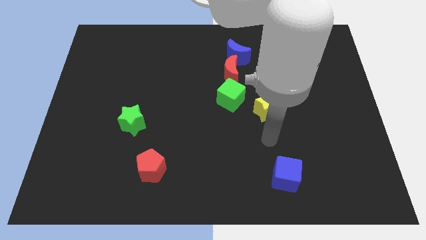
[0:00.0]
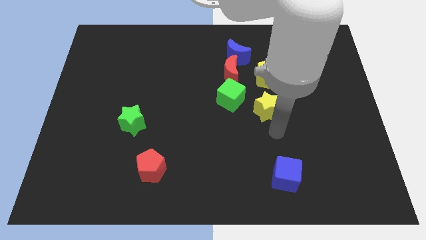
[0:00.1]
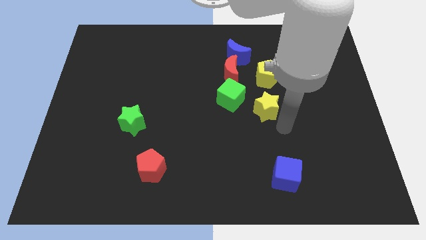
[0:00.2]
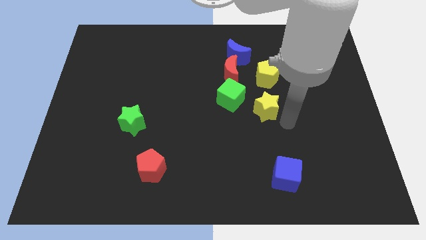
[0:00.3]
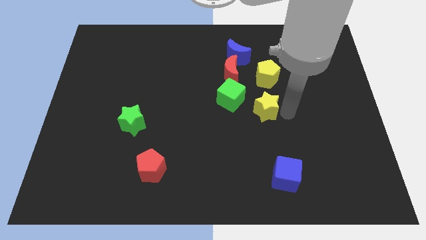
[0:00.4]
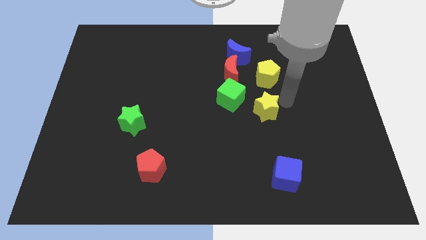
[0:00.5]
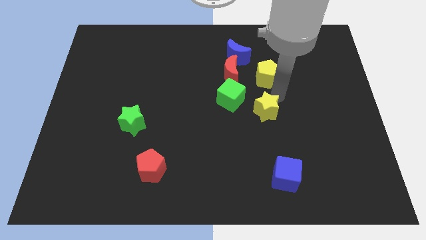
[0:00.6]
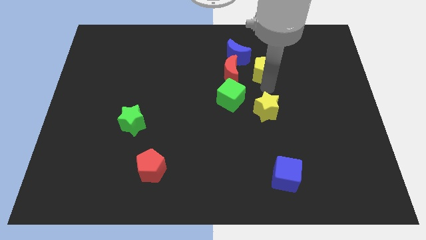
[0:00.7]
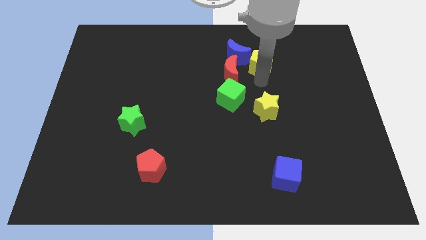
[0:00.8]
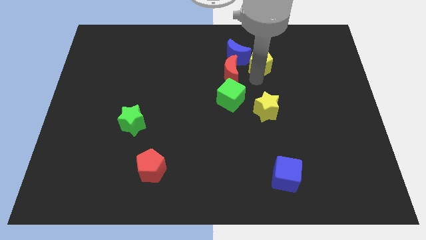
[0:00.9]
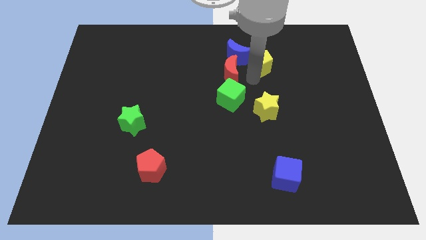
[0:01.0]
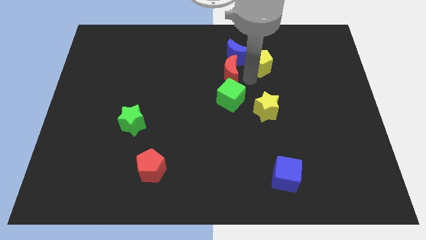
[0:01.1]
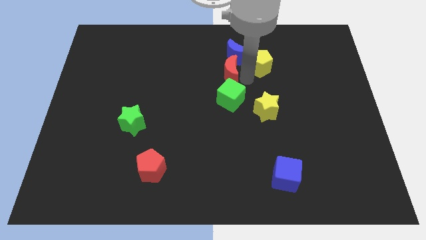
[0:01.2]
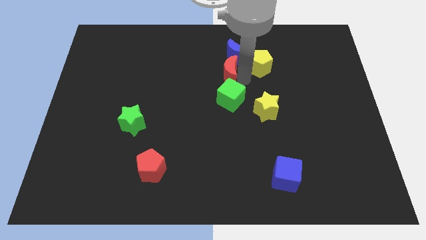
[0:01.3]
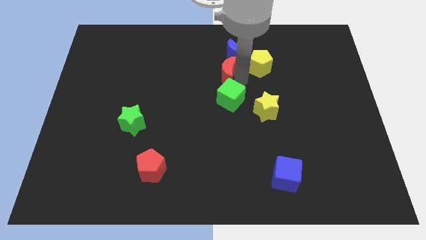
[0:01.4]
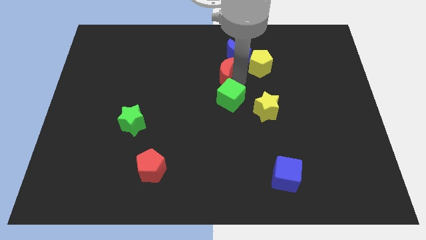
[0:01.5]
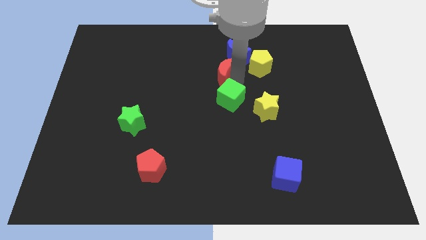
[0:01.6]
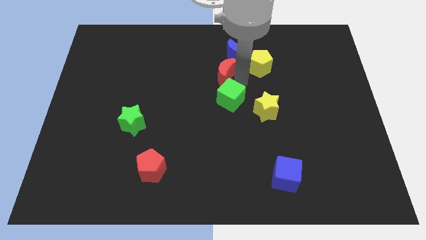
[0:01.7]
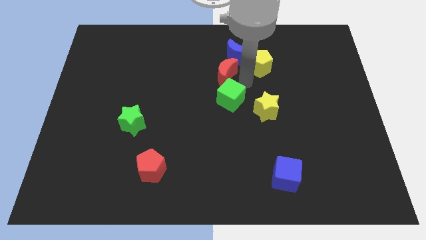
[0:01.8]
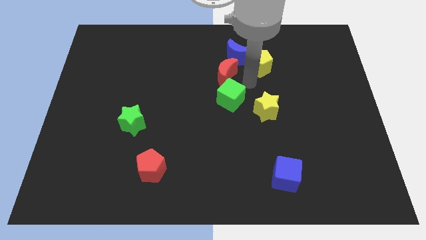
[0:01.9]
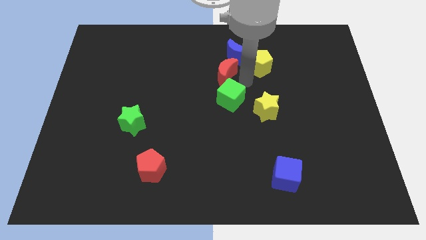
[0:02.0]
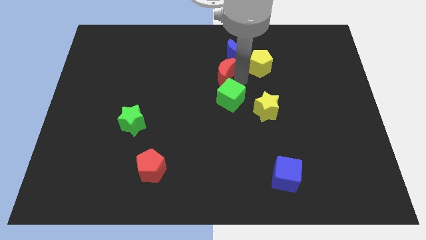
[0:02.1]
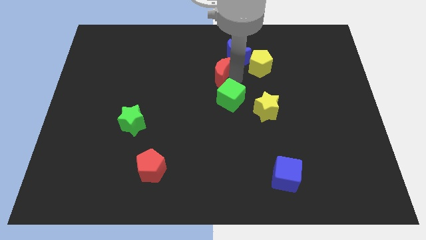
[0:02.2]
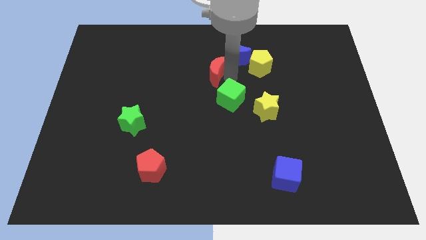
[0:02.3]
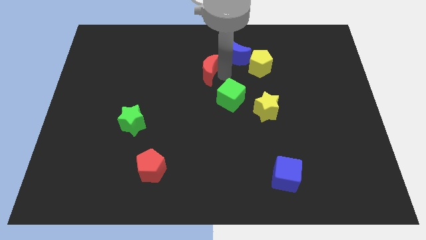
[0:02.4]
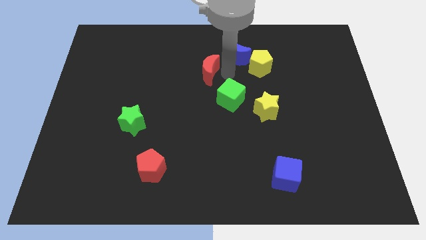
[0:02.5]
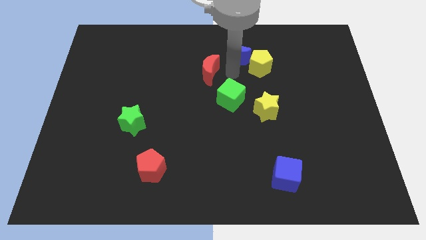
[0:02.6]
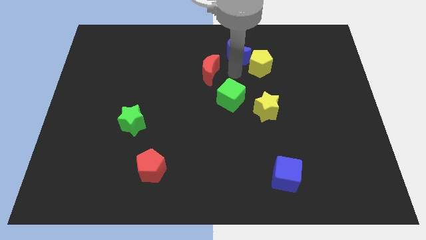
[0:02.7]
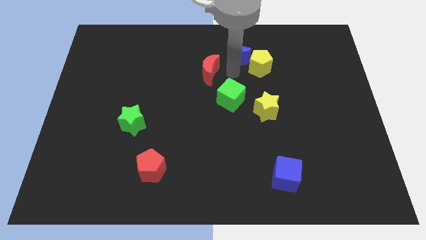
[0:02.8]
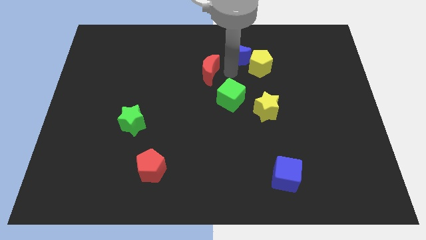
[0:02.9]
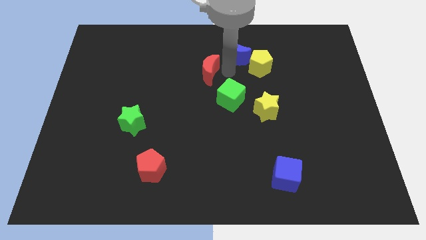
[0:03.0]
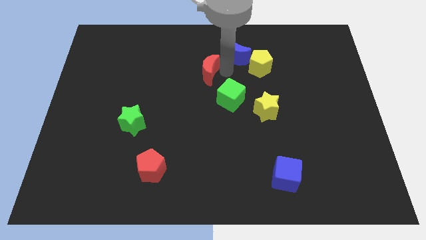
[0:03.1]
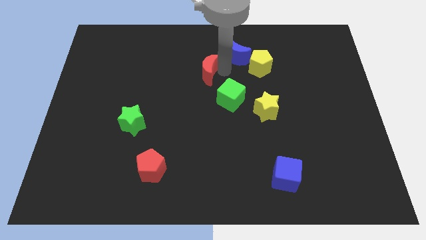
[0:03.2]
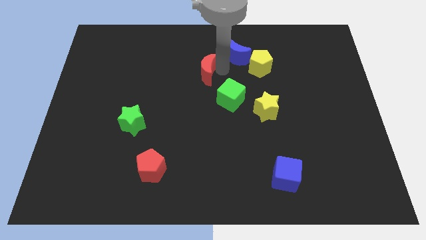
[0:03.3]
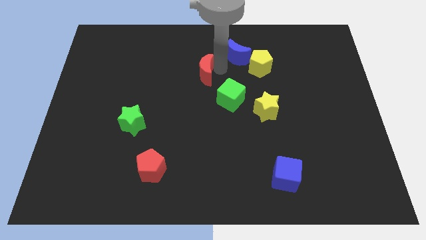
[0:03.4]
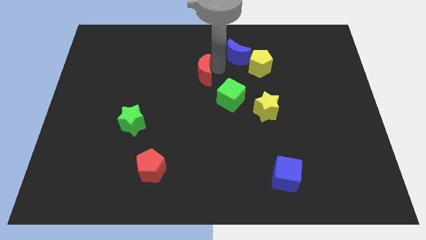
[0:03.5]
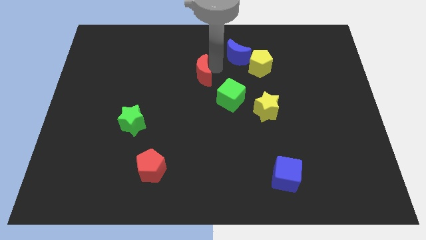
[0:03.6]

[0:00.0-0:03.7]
pull the red moon apart from the group of blocks

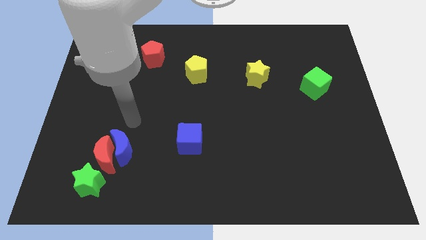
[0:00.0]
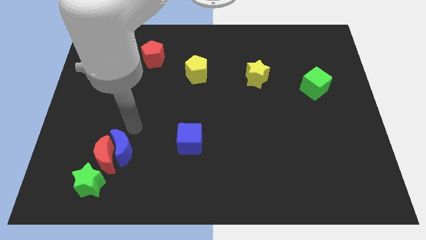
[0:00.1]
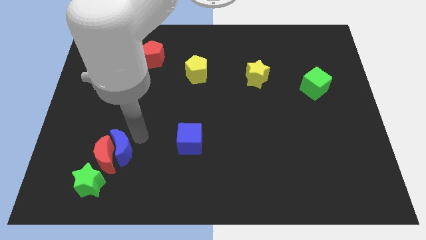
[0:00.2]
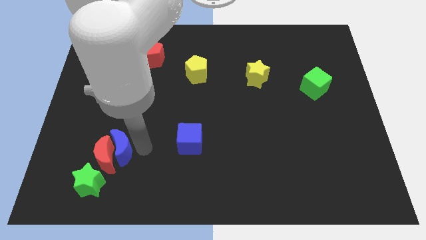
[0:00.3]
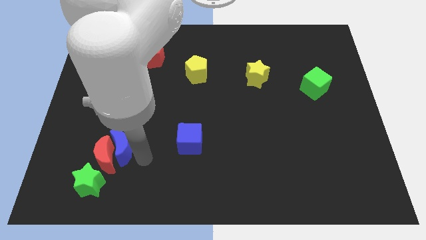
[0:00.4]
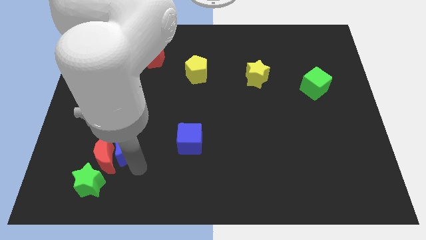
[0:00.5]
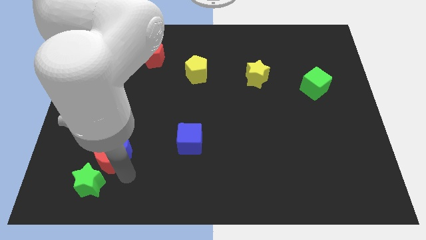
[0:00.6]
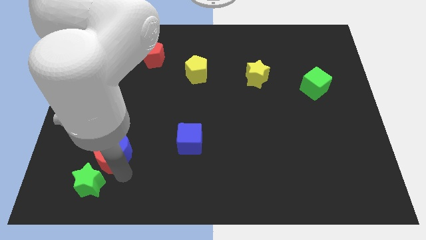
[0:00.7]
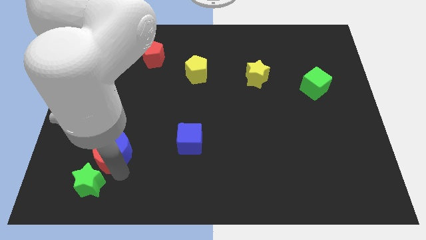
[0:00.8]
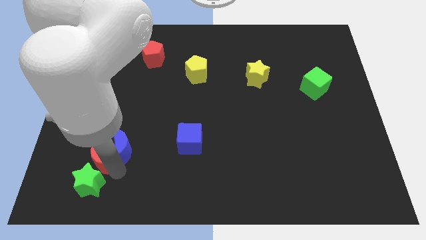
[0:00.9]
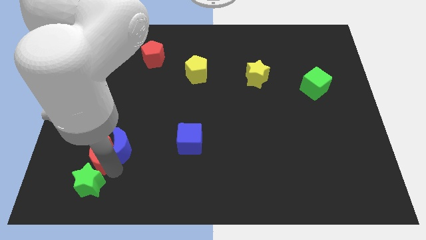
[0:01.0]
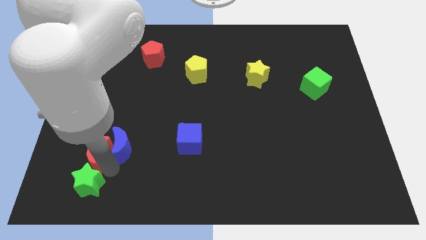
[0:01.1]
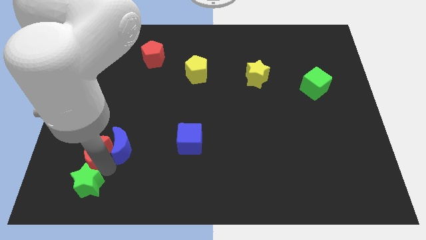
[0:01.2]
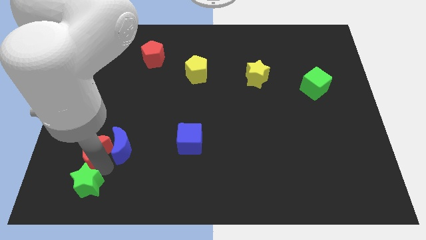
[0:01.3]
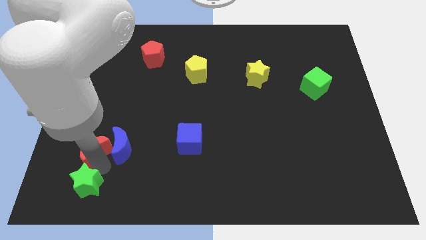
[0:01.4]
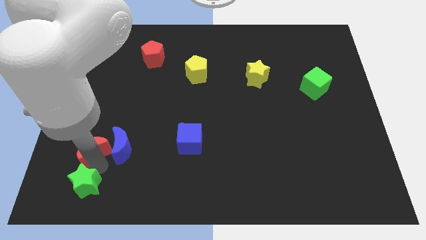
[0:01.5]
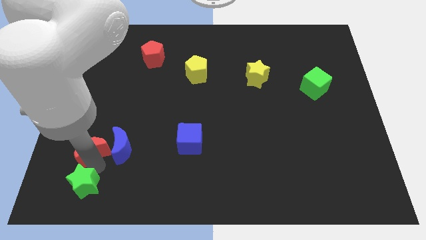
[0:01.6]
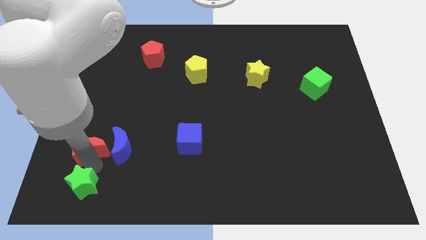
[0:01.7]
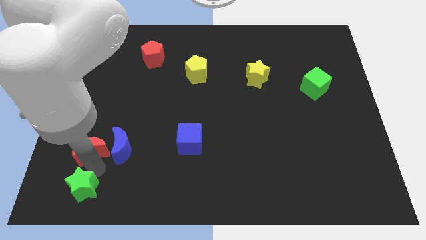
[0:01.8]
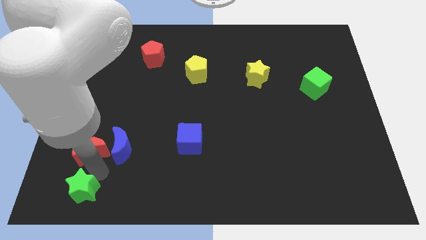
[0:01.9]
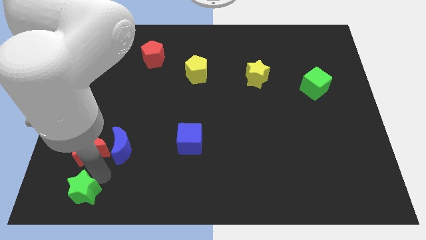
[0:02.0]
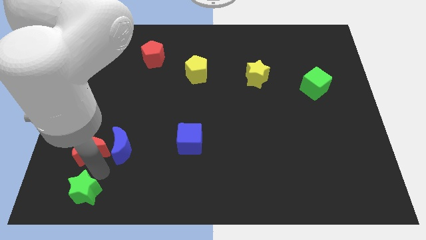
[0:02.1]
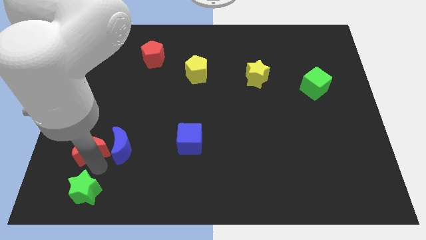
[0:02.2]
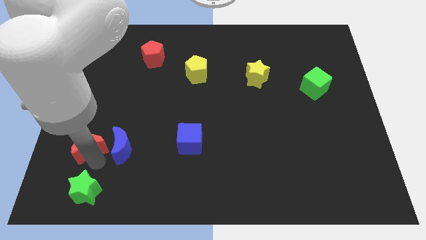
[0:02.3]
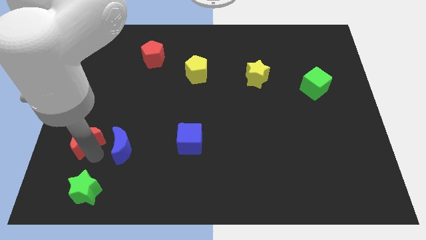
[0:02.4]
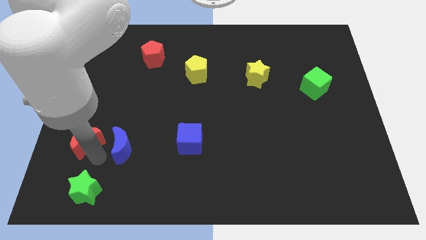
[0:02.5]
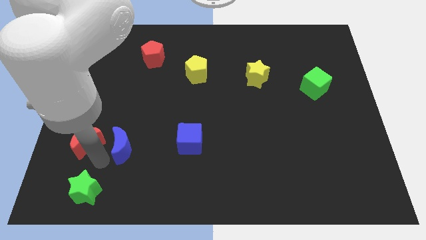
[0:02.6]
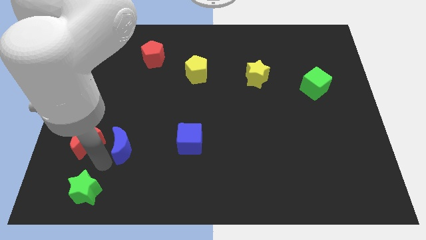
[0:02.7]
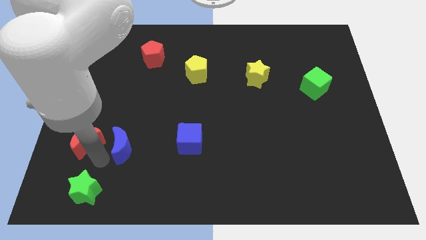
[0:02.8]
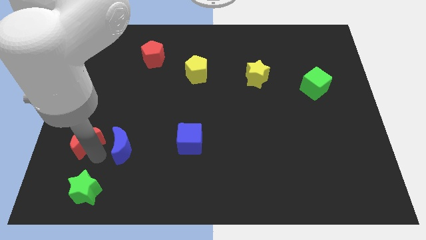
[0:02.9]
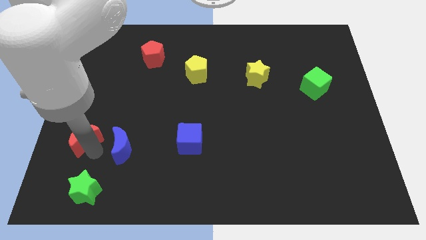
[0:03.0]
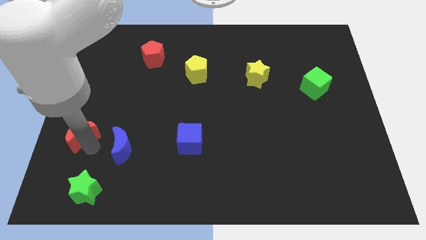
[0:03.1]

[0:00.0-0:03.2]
separate the red moon from the blue moon and green star

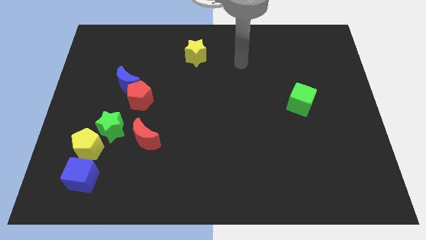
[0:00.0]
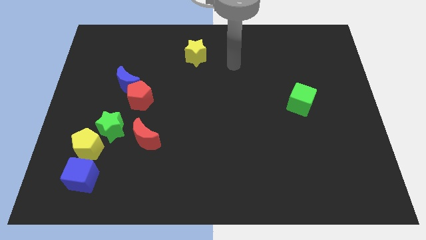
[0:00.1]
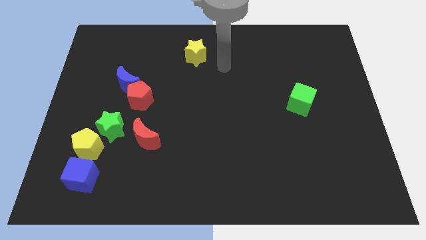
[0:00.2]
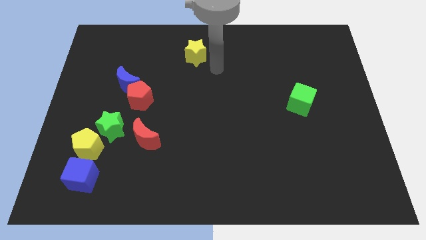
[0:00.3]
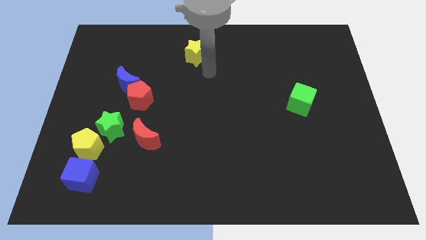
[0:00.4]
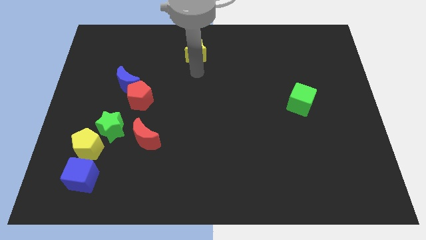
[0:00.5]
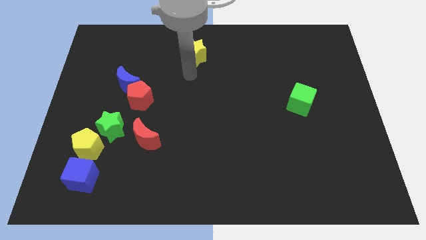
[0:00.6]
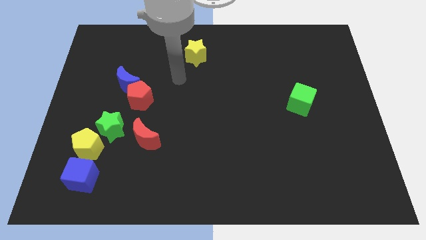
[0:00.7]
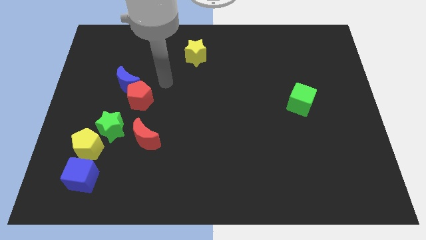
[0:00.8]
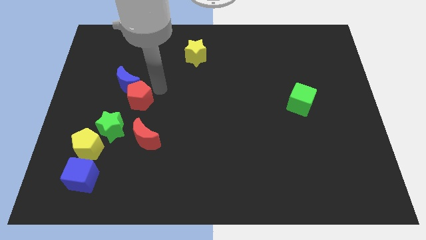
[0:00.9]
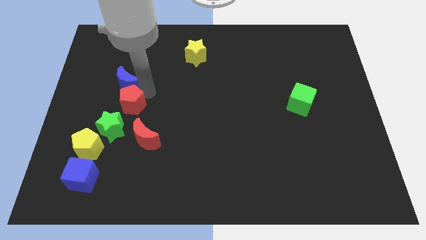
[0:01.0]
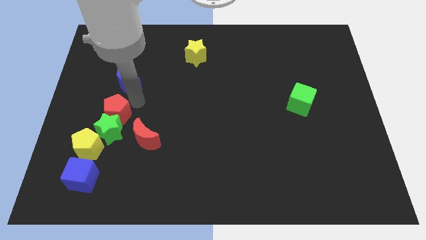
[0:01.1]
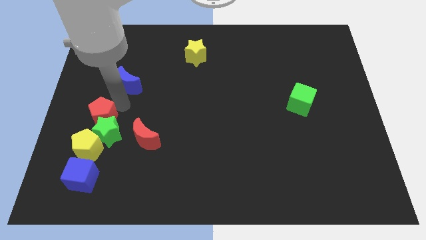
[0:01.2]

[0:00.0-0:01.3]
move the blue moon away from the red pentagon

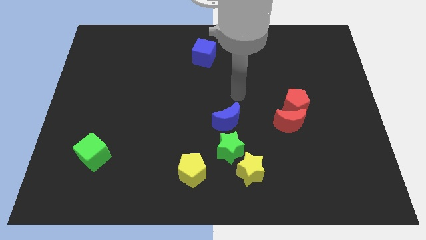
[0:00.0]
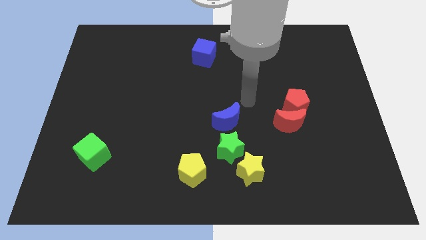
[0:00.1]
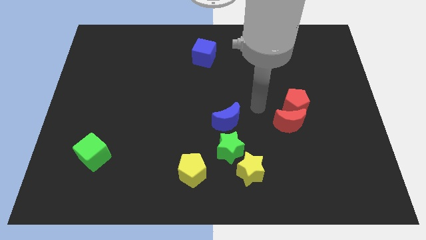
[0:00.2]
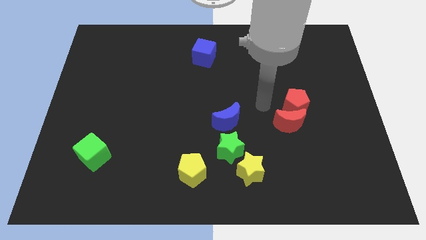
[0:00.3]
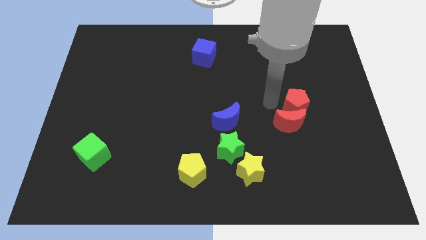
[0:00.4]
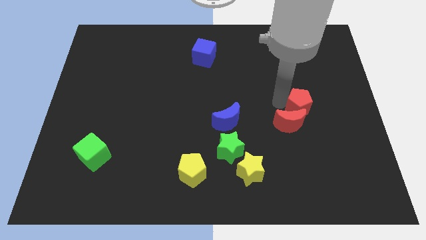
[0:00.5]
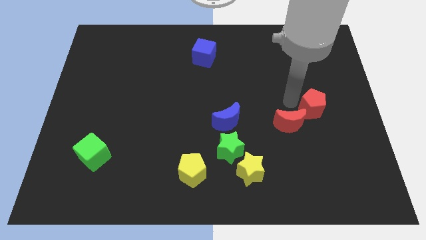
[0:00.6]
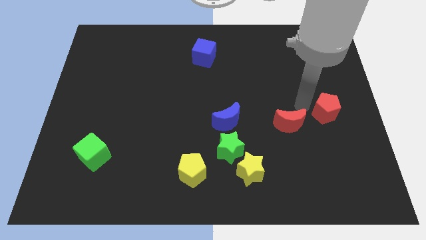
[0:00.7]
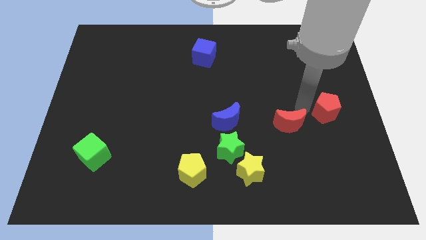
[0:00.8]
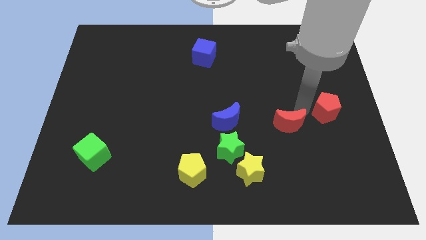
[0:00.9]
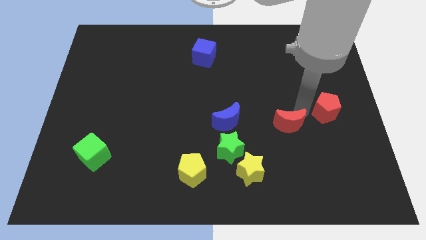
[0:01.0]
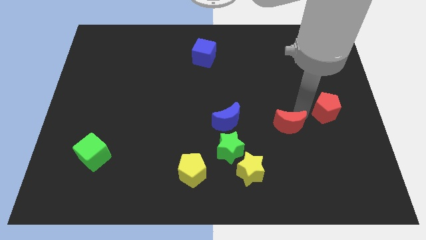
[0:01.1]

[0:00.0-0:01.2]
pull the red moon apart from the red pentagon
